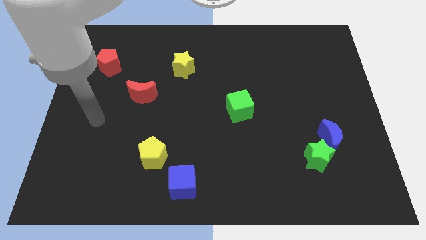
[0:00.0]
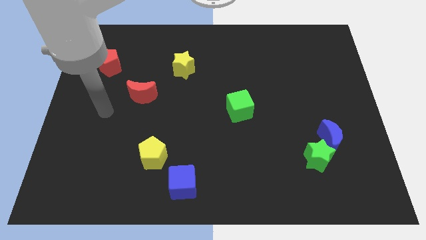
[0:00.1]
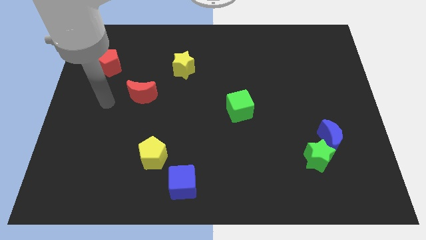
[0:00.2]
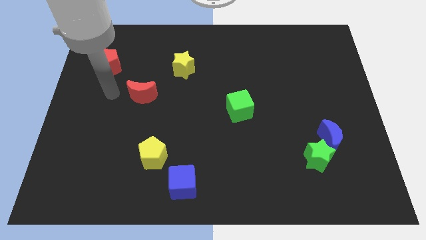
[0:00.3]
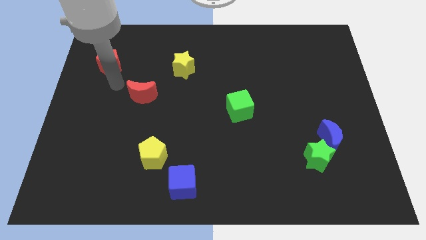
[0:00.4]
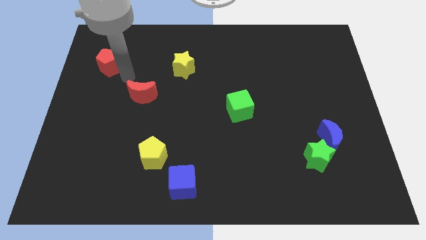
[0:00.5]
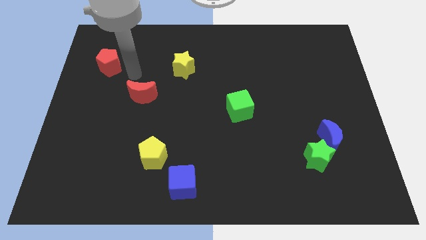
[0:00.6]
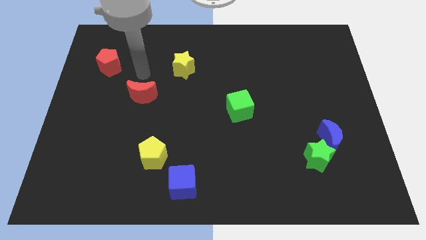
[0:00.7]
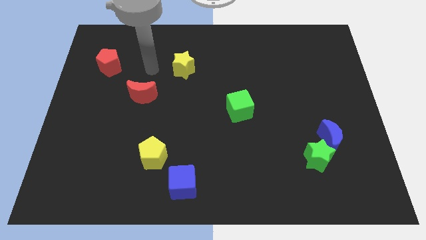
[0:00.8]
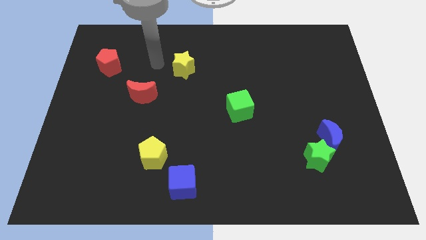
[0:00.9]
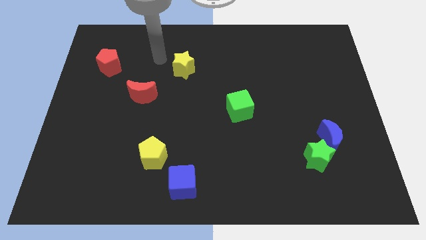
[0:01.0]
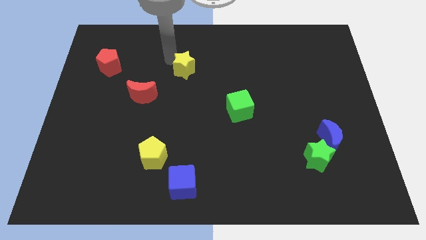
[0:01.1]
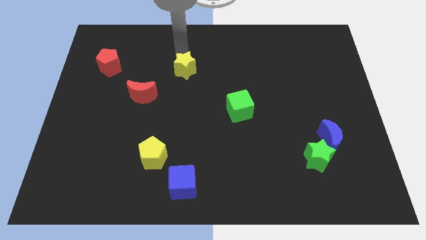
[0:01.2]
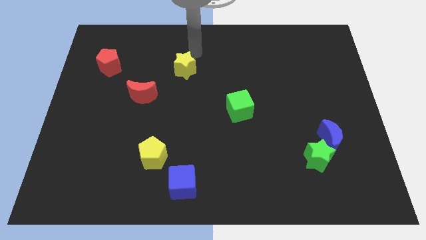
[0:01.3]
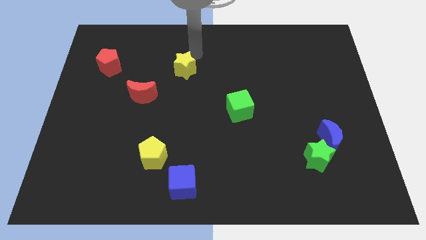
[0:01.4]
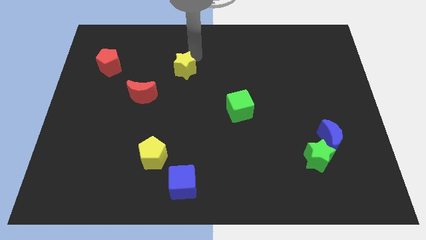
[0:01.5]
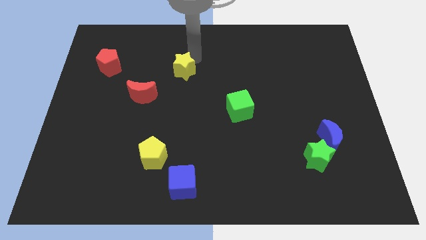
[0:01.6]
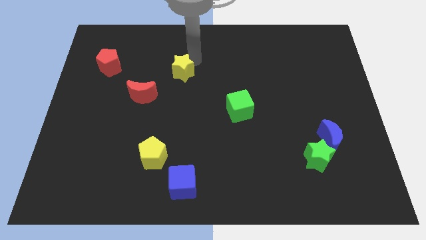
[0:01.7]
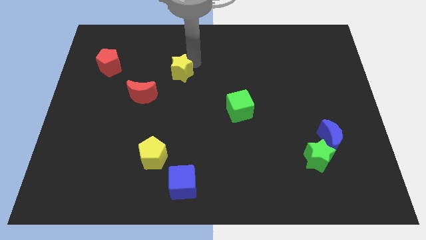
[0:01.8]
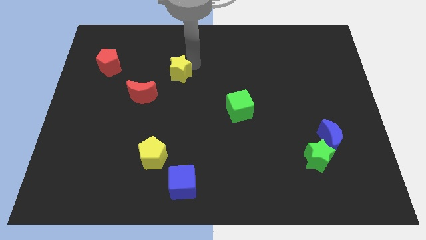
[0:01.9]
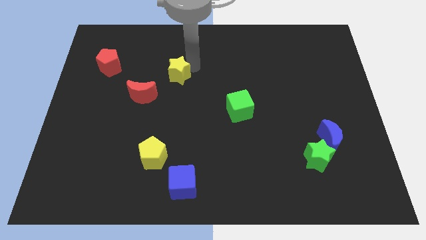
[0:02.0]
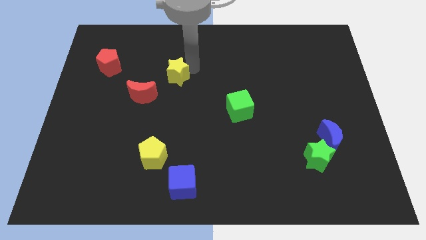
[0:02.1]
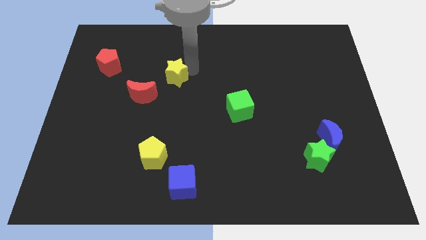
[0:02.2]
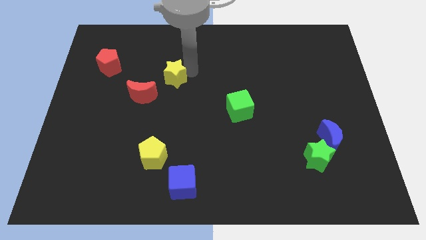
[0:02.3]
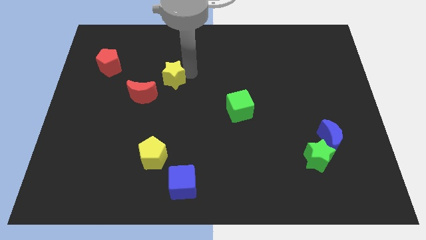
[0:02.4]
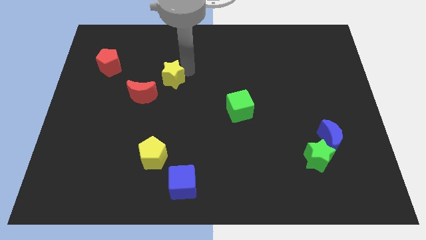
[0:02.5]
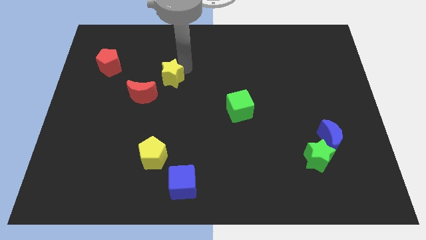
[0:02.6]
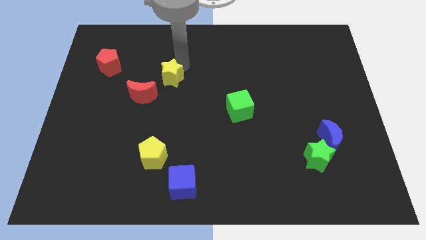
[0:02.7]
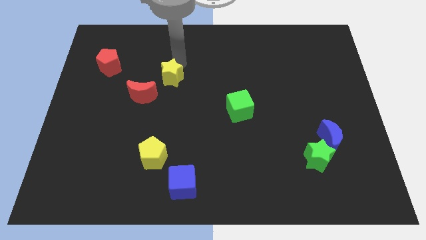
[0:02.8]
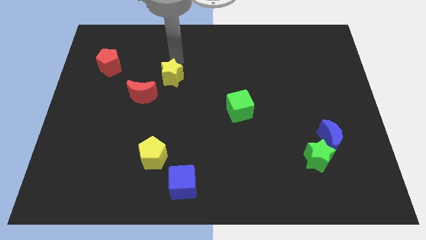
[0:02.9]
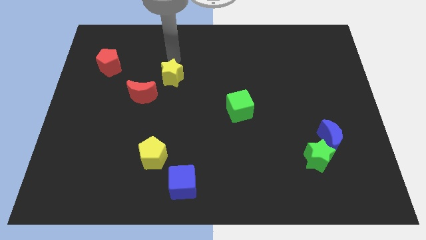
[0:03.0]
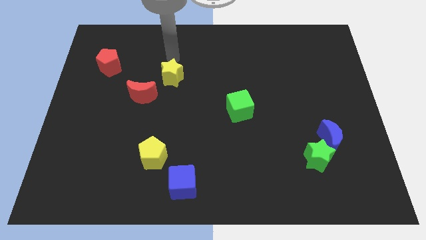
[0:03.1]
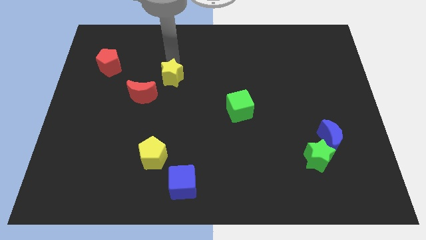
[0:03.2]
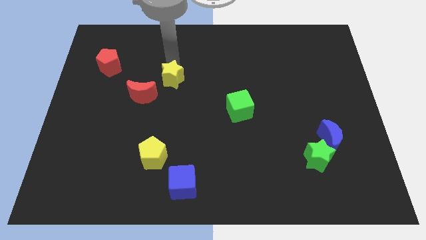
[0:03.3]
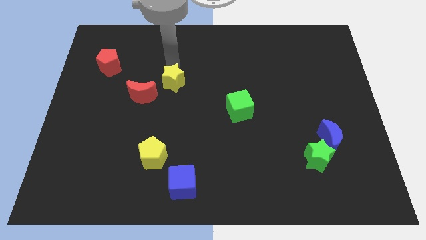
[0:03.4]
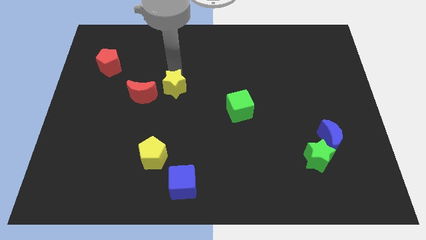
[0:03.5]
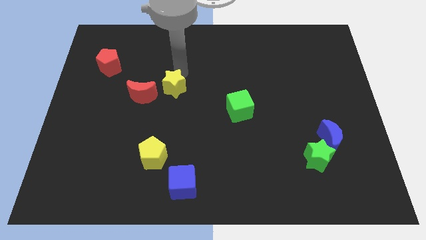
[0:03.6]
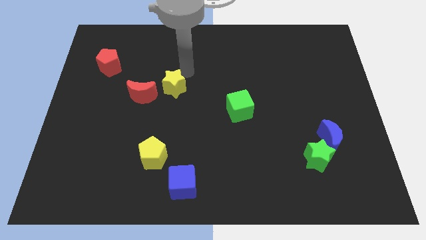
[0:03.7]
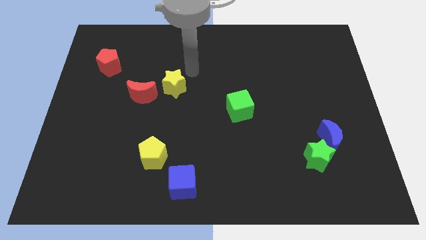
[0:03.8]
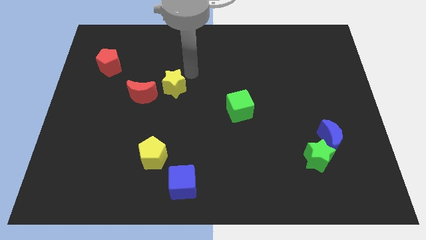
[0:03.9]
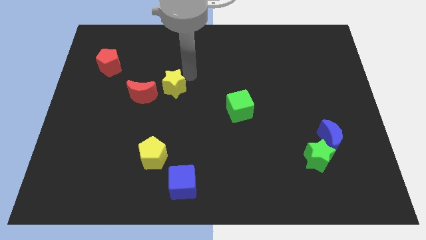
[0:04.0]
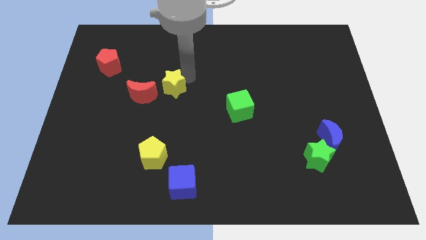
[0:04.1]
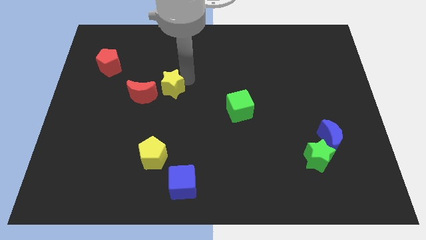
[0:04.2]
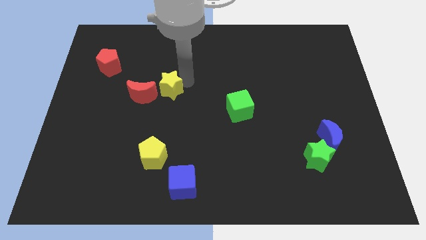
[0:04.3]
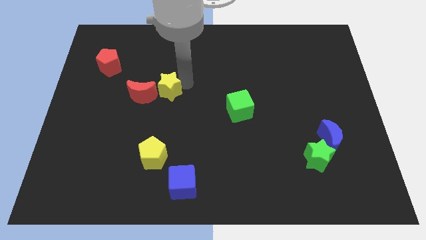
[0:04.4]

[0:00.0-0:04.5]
slightly slide the yellow star down and left

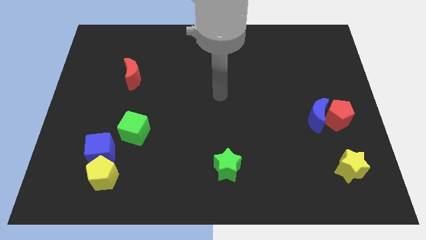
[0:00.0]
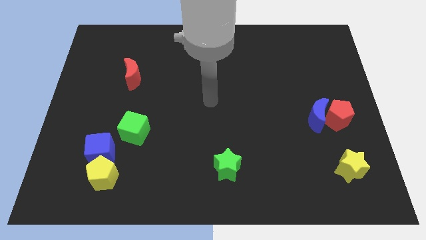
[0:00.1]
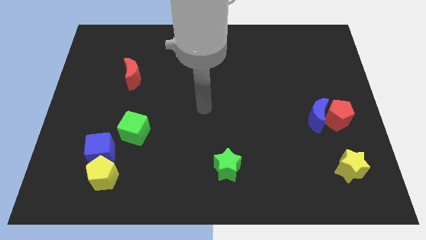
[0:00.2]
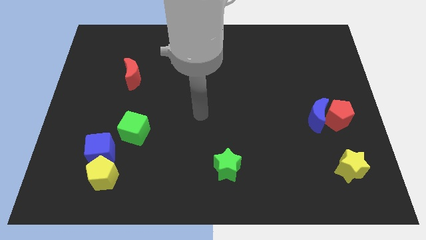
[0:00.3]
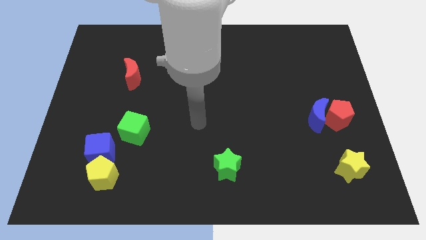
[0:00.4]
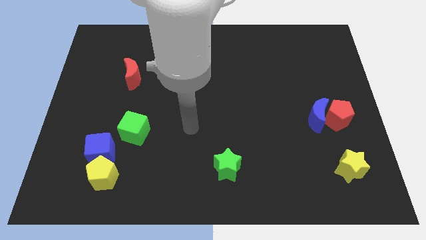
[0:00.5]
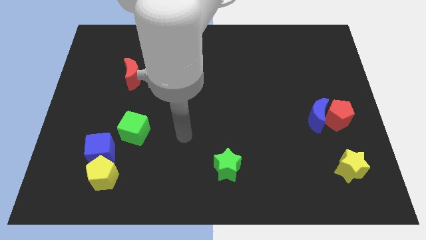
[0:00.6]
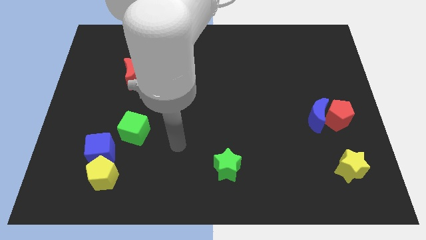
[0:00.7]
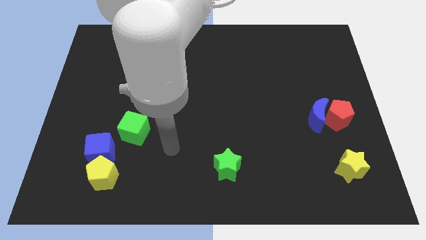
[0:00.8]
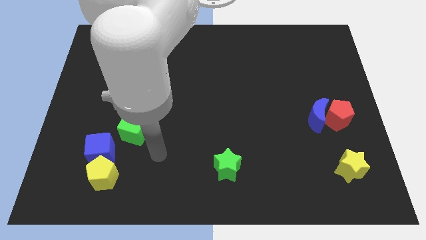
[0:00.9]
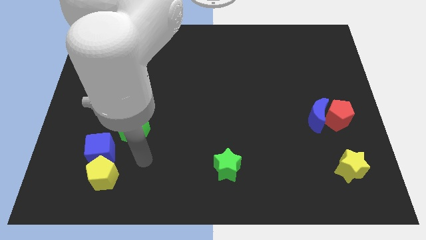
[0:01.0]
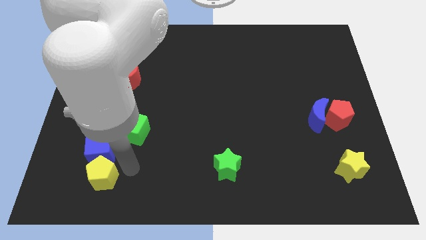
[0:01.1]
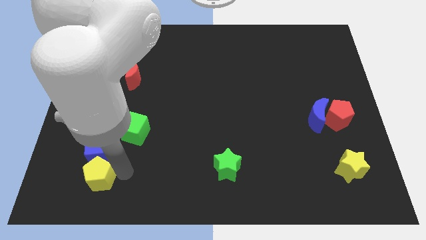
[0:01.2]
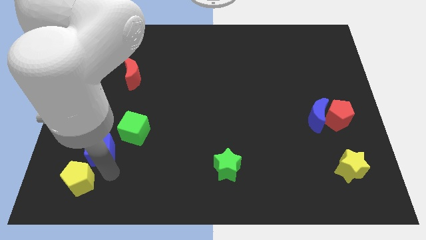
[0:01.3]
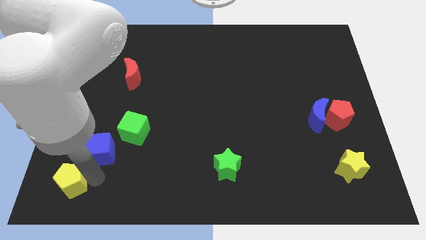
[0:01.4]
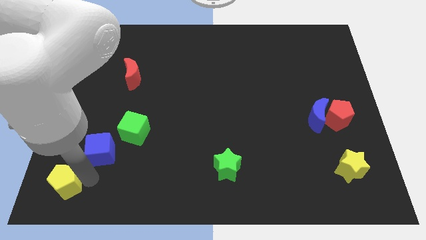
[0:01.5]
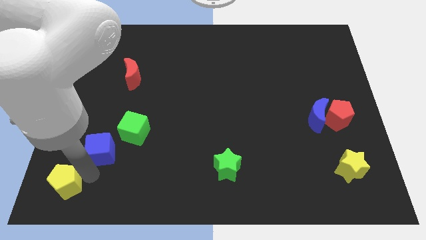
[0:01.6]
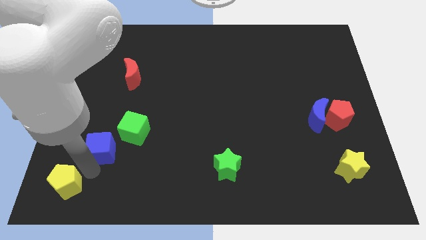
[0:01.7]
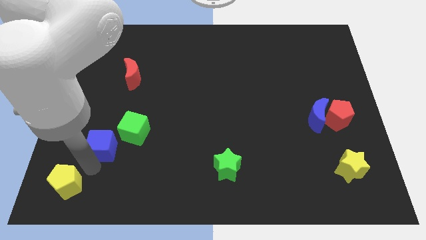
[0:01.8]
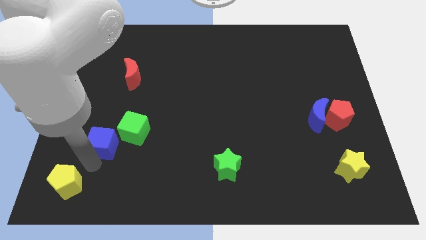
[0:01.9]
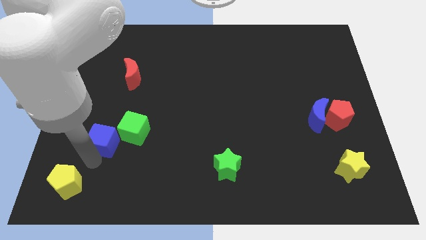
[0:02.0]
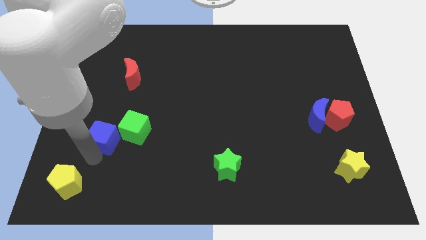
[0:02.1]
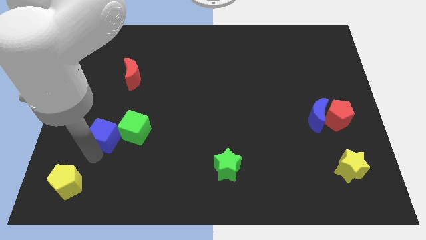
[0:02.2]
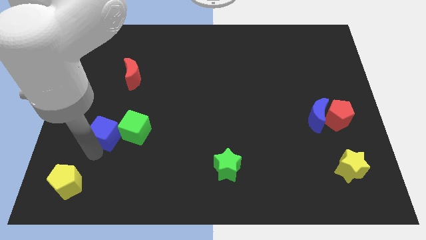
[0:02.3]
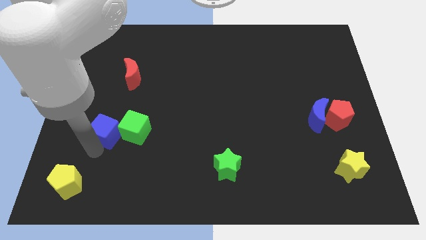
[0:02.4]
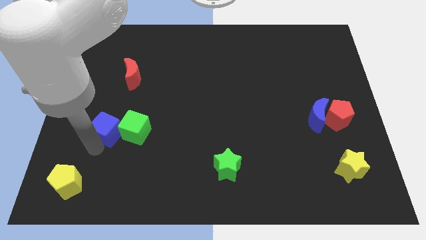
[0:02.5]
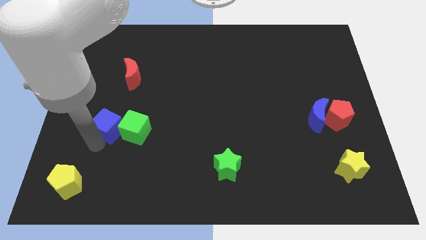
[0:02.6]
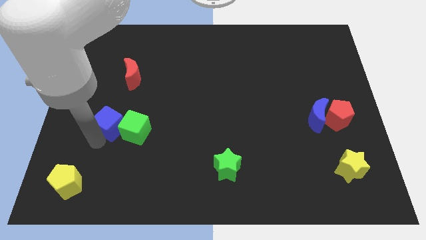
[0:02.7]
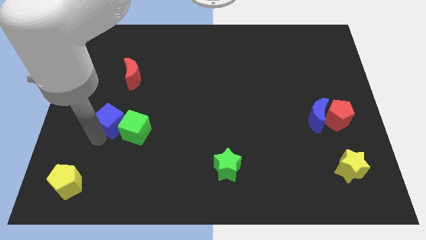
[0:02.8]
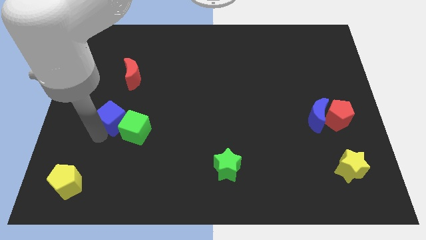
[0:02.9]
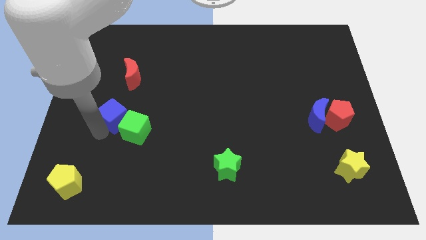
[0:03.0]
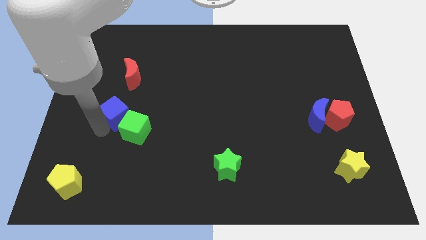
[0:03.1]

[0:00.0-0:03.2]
slightly move the blue cube up and then to the right

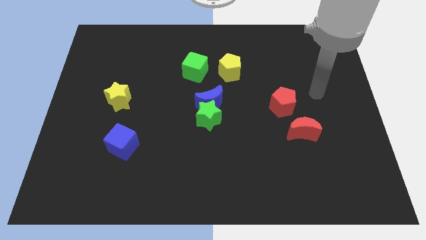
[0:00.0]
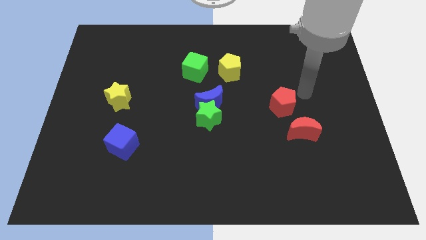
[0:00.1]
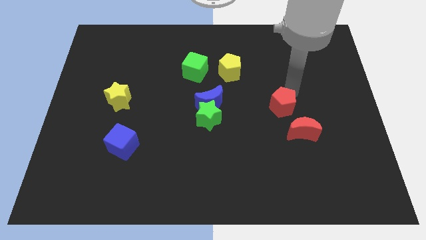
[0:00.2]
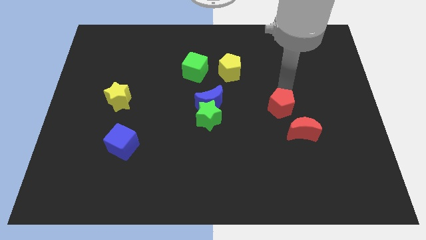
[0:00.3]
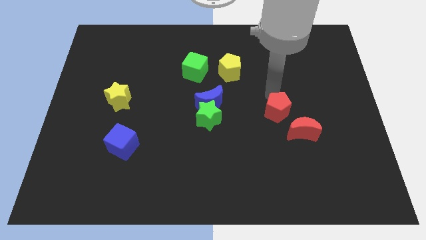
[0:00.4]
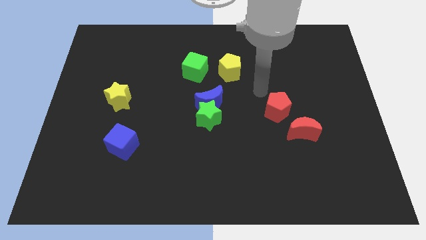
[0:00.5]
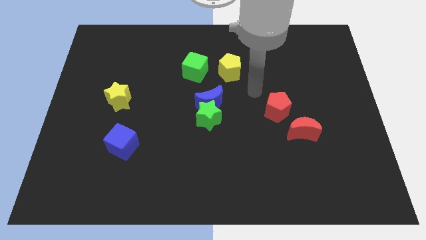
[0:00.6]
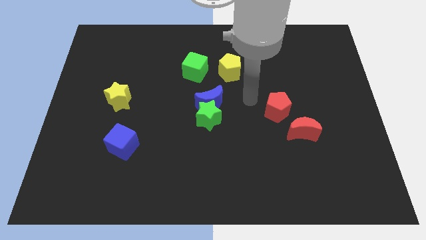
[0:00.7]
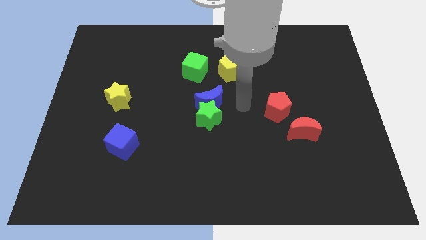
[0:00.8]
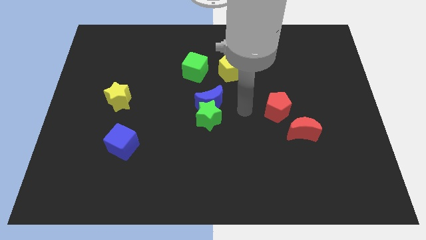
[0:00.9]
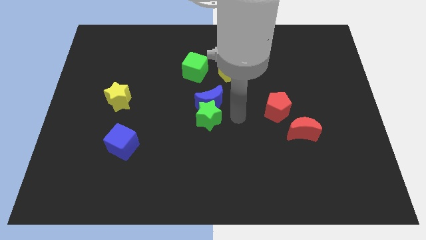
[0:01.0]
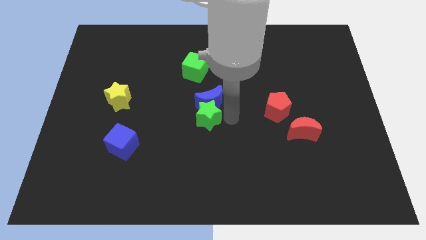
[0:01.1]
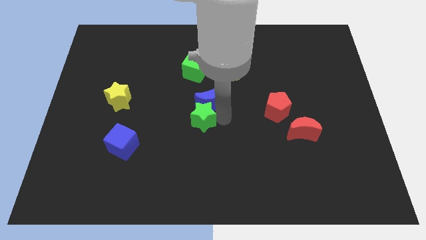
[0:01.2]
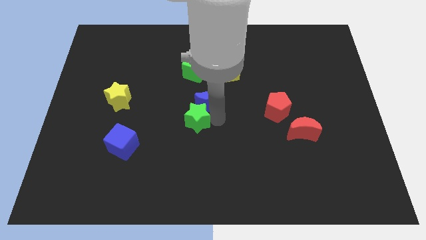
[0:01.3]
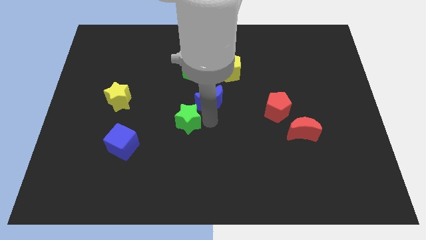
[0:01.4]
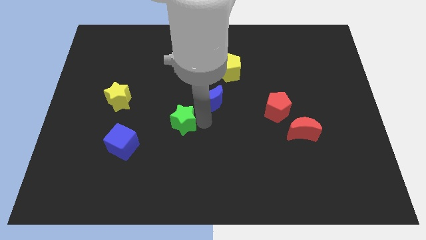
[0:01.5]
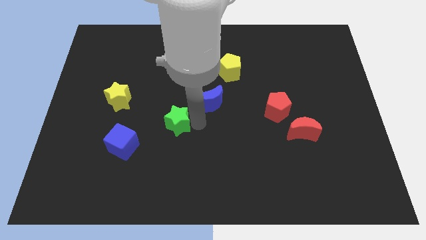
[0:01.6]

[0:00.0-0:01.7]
push the green star left a little
